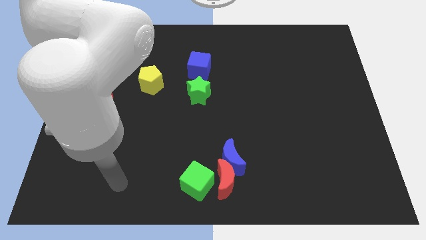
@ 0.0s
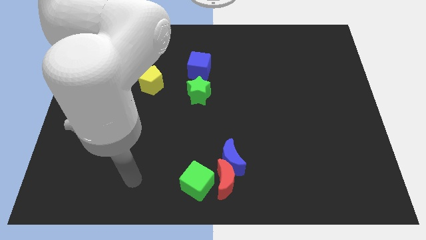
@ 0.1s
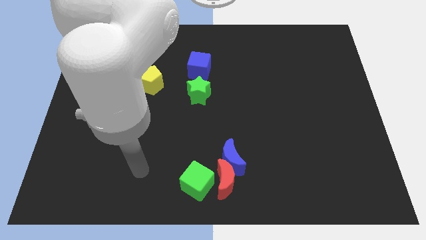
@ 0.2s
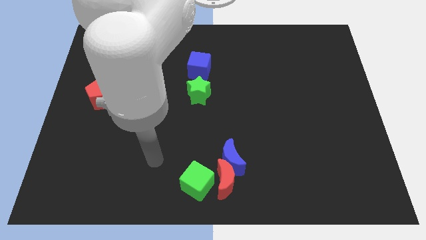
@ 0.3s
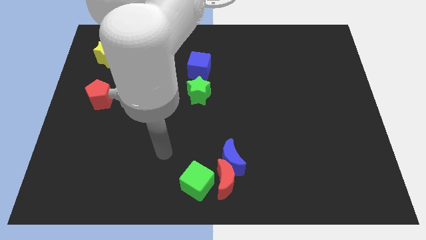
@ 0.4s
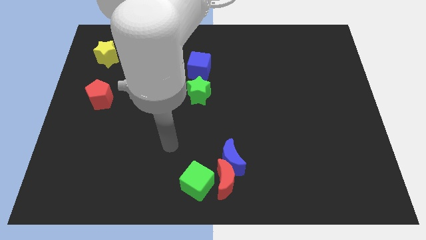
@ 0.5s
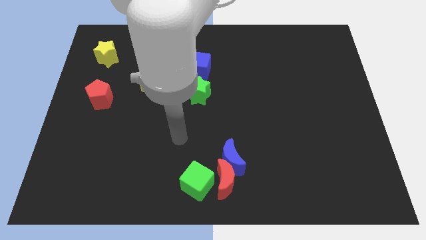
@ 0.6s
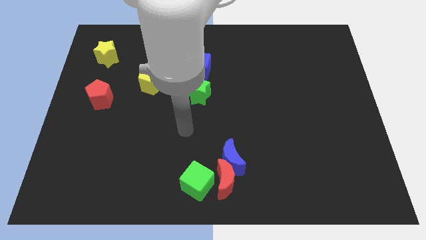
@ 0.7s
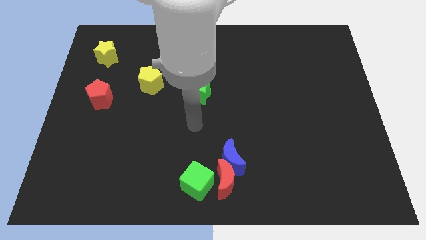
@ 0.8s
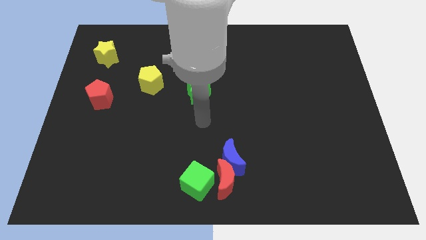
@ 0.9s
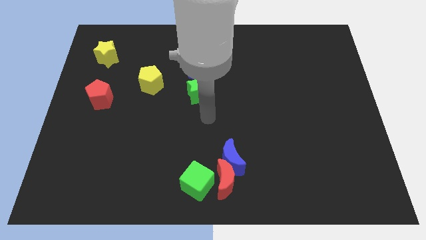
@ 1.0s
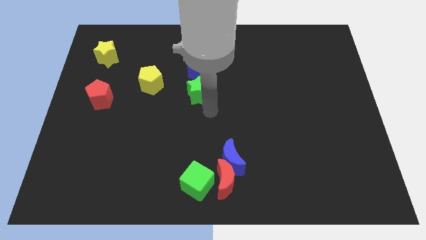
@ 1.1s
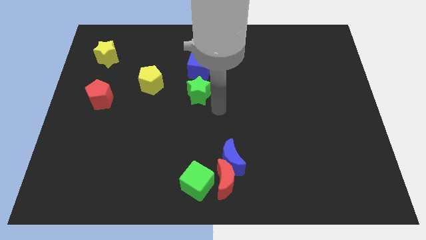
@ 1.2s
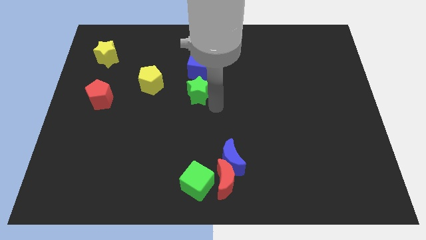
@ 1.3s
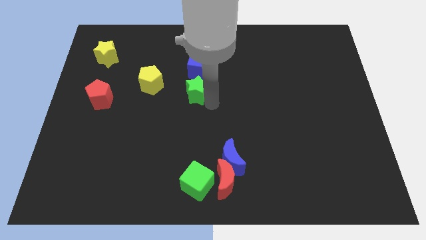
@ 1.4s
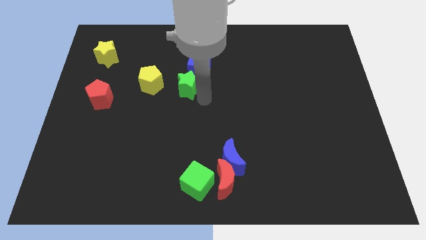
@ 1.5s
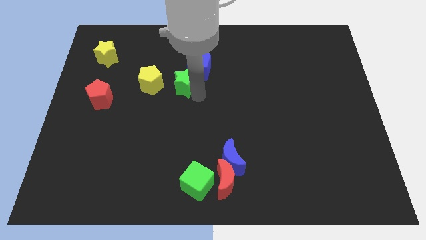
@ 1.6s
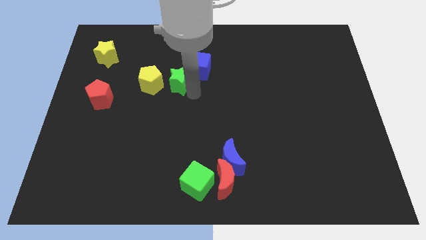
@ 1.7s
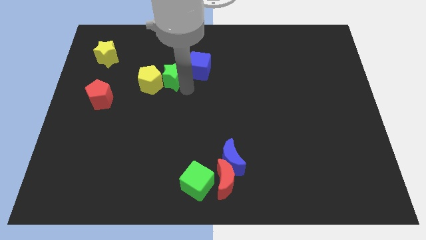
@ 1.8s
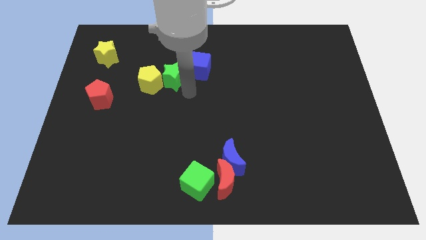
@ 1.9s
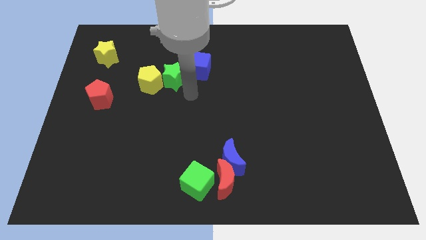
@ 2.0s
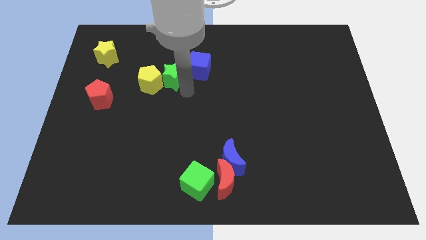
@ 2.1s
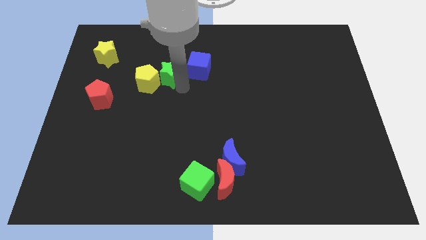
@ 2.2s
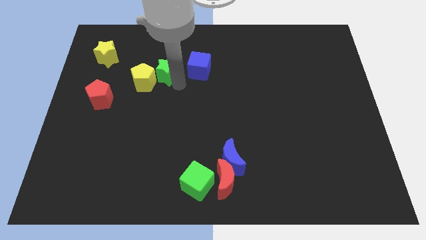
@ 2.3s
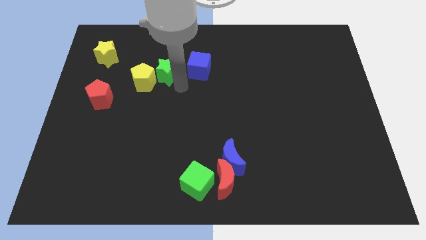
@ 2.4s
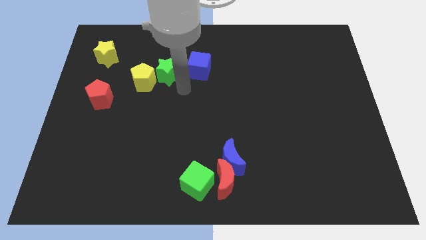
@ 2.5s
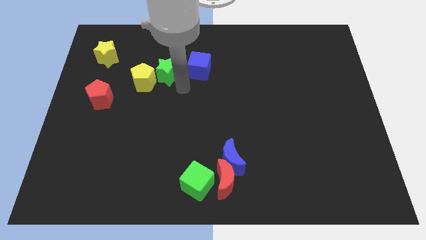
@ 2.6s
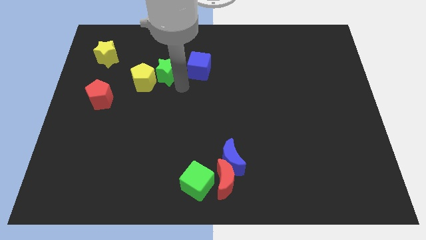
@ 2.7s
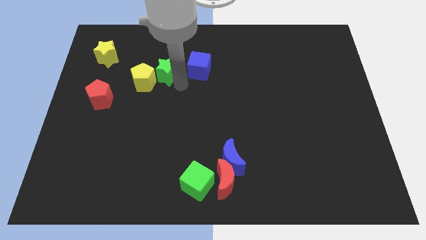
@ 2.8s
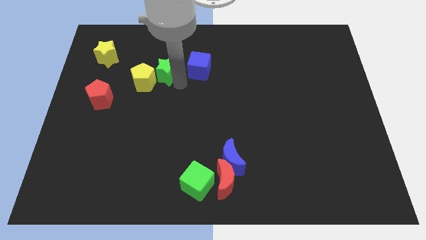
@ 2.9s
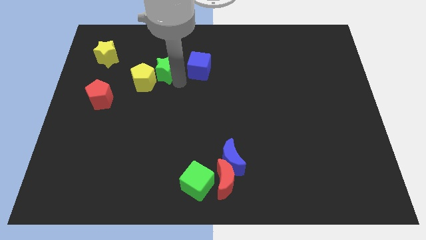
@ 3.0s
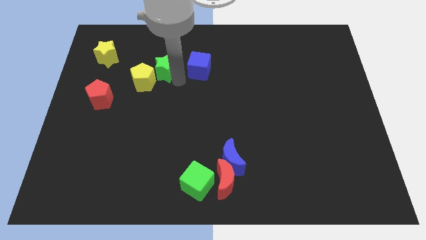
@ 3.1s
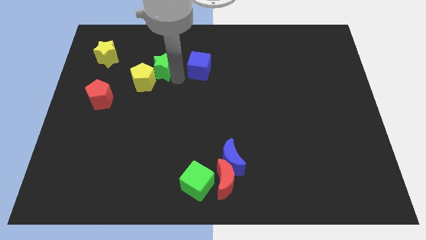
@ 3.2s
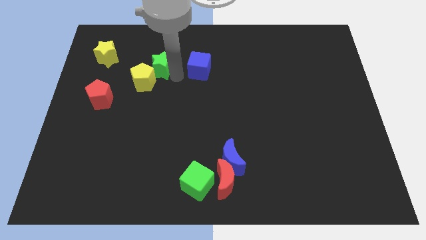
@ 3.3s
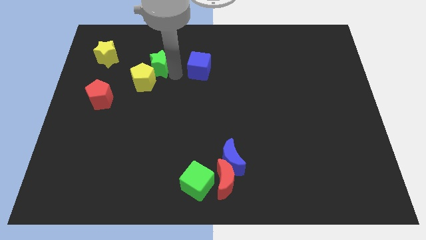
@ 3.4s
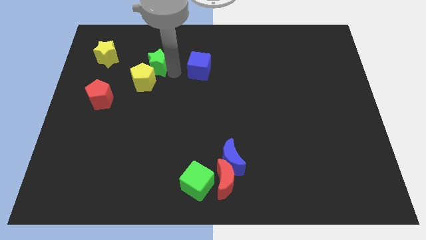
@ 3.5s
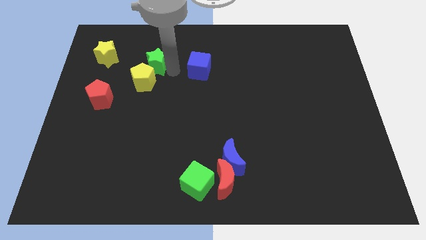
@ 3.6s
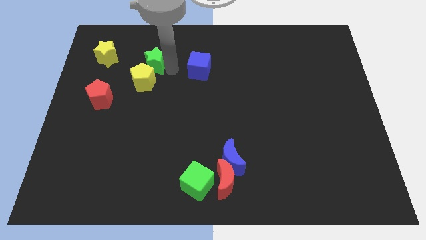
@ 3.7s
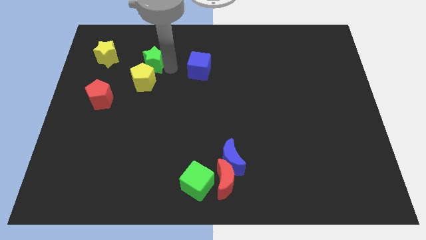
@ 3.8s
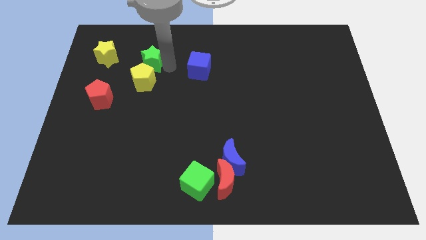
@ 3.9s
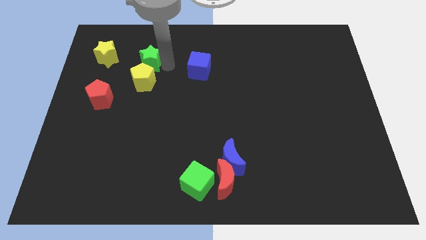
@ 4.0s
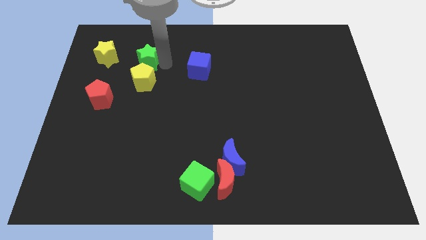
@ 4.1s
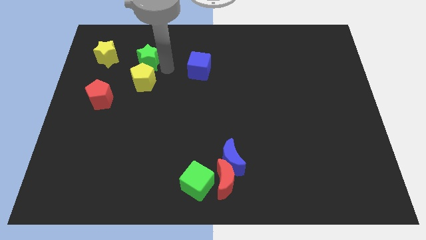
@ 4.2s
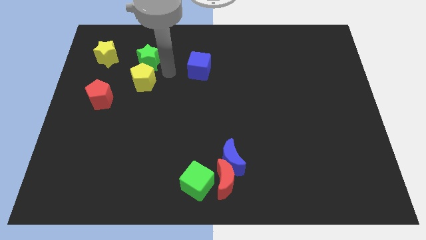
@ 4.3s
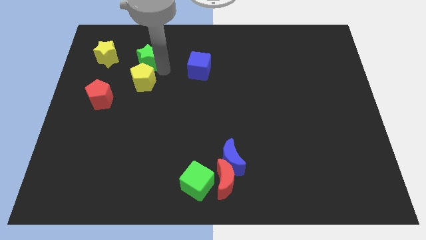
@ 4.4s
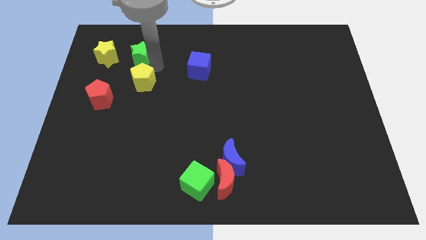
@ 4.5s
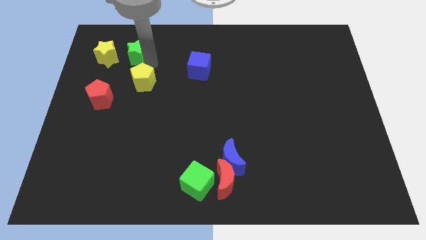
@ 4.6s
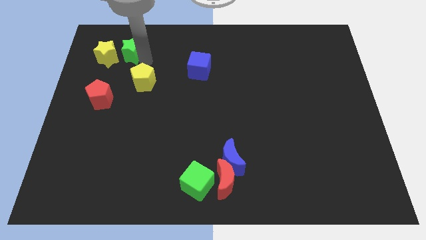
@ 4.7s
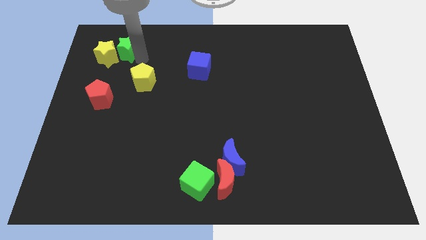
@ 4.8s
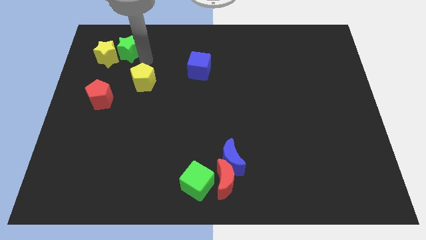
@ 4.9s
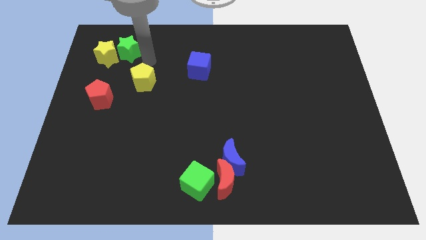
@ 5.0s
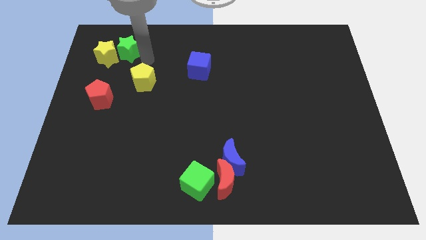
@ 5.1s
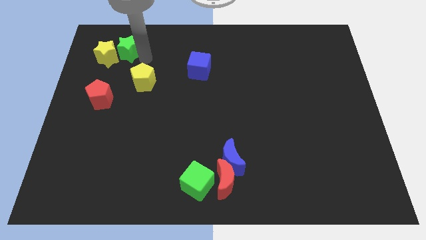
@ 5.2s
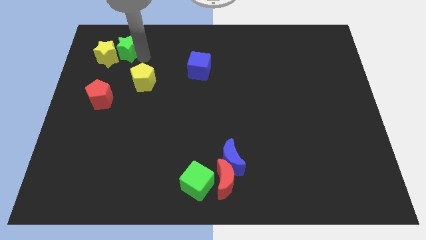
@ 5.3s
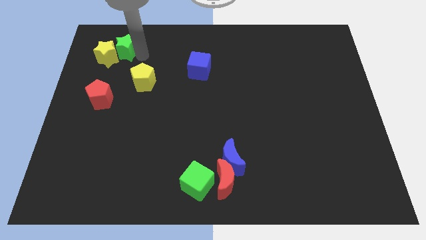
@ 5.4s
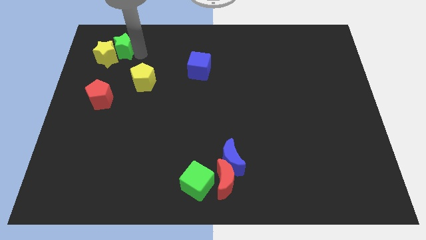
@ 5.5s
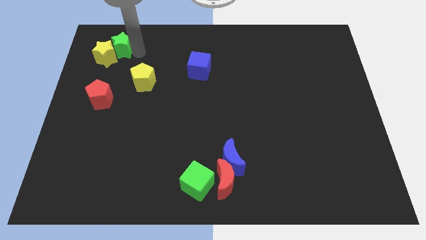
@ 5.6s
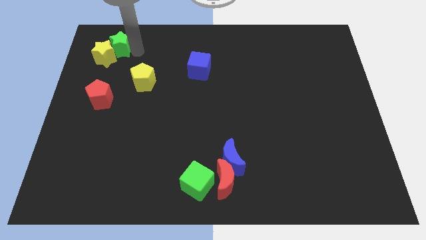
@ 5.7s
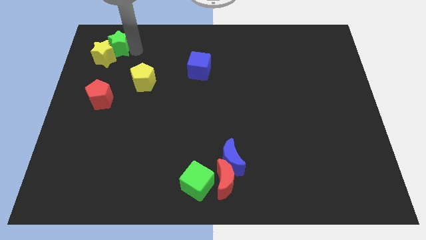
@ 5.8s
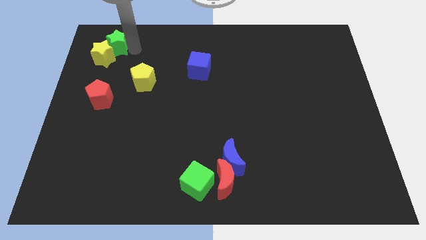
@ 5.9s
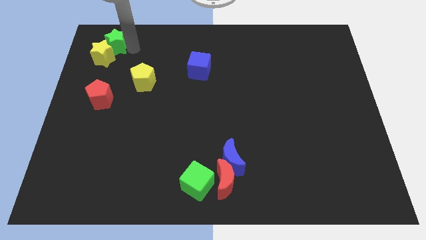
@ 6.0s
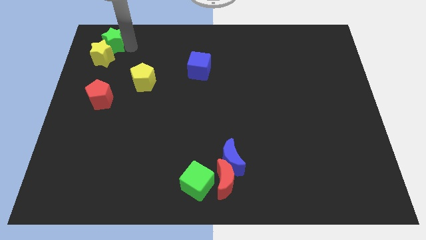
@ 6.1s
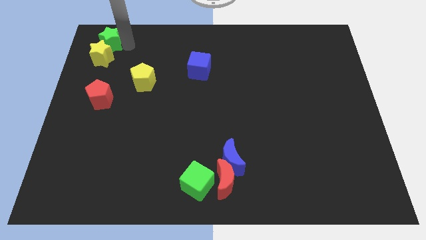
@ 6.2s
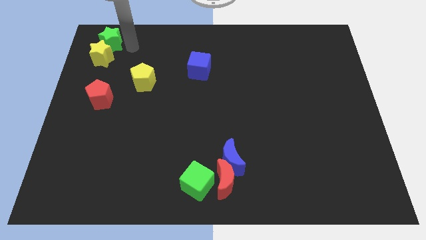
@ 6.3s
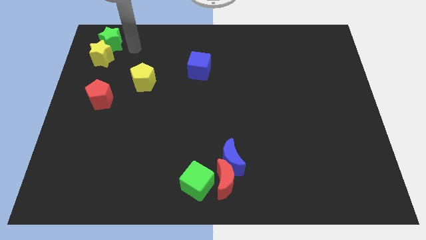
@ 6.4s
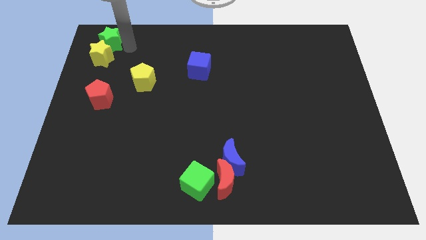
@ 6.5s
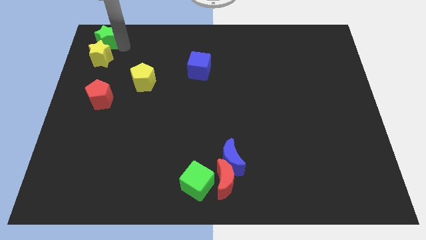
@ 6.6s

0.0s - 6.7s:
move the green star to the top left corner
